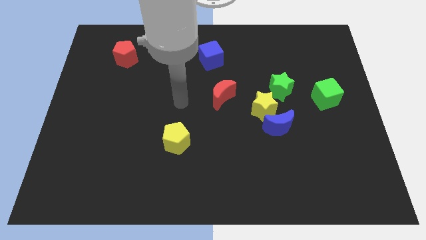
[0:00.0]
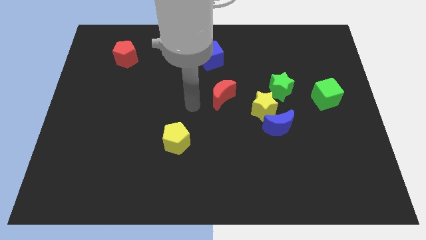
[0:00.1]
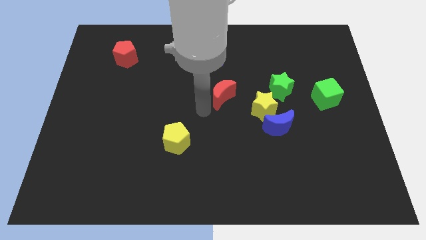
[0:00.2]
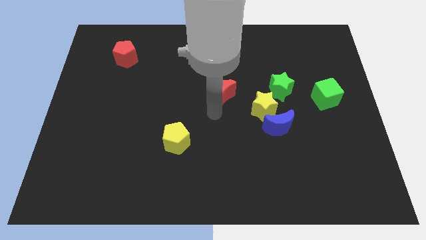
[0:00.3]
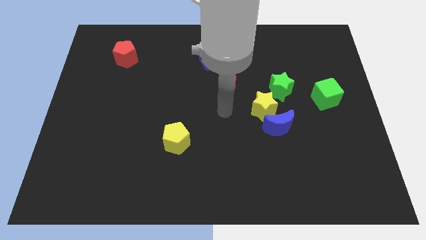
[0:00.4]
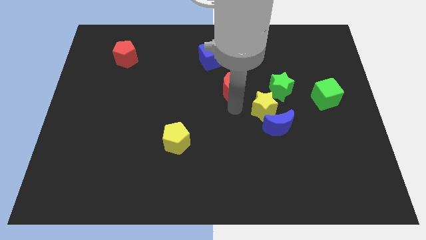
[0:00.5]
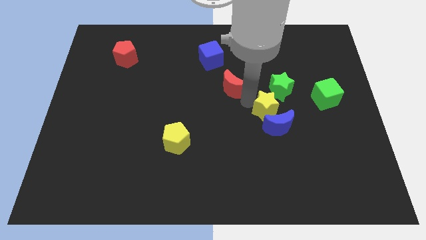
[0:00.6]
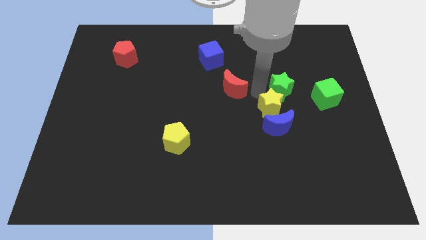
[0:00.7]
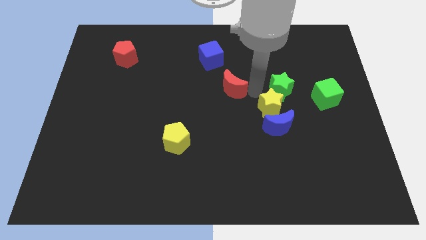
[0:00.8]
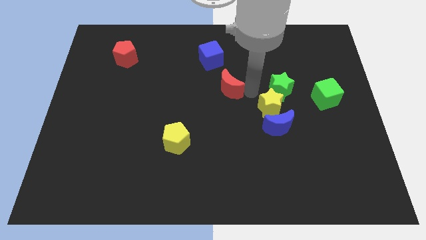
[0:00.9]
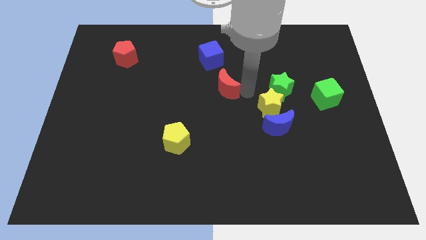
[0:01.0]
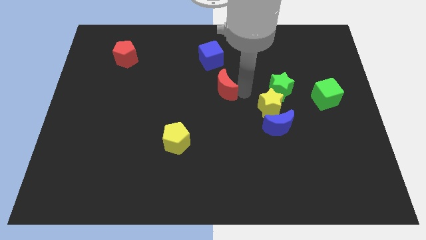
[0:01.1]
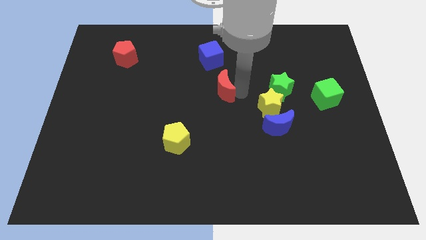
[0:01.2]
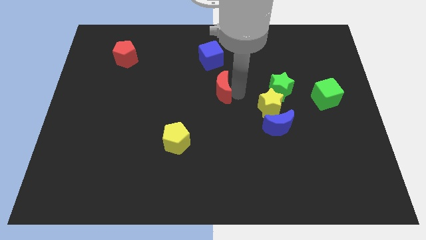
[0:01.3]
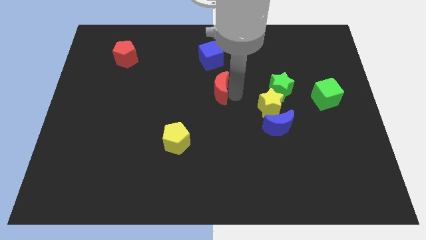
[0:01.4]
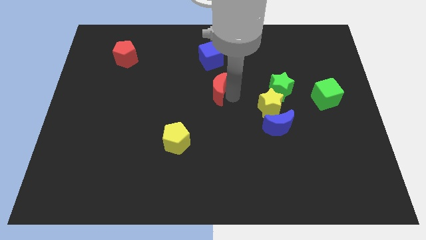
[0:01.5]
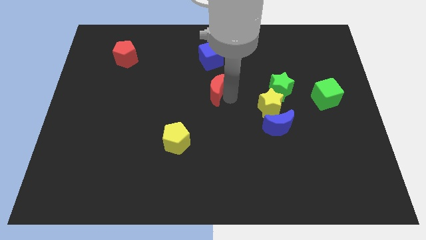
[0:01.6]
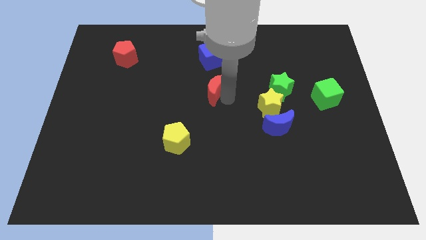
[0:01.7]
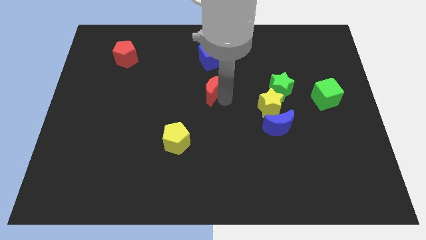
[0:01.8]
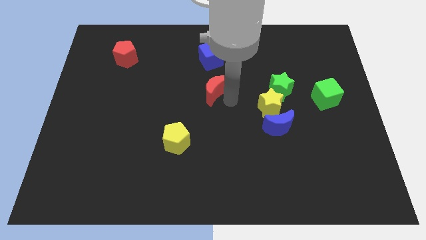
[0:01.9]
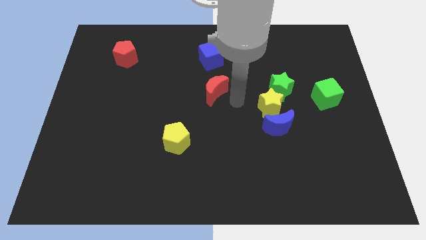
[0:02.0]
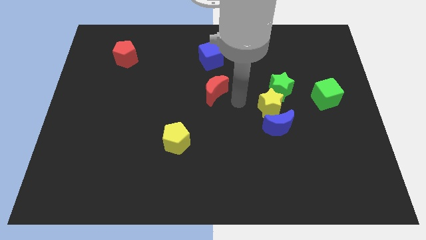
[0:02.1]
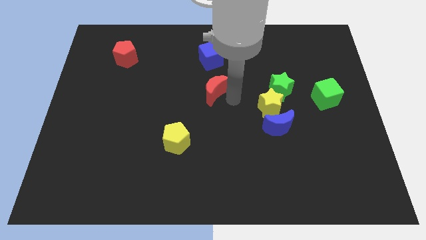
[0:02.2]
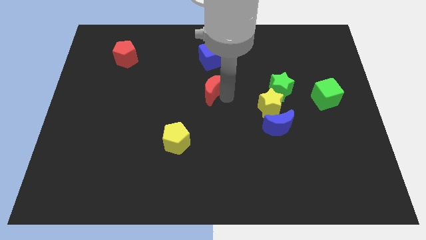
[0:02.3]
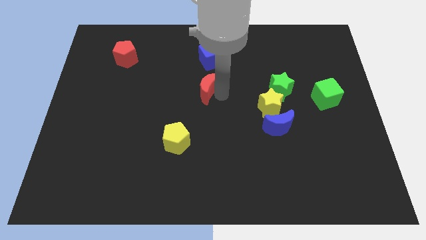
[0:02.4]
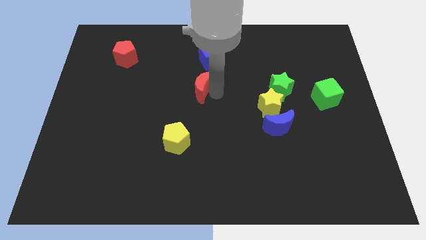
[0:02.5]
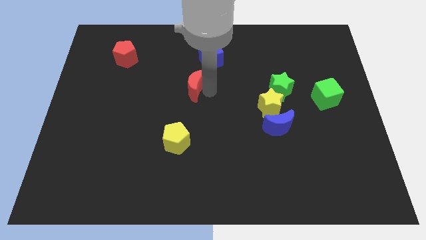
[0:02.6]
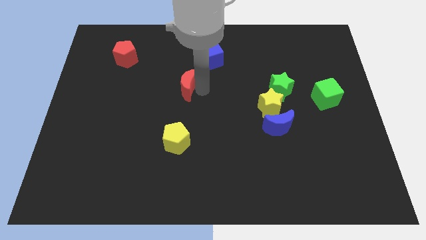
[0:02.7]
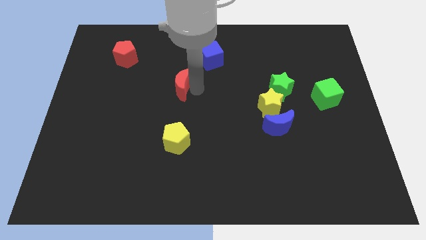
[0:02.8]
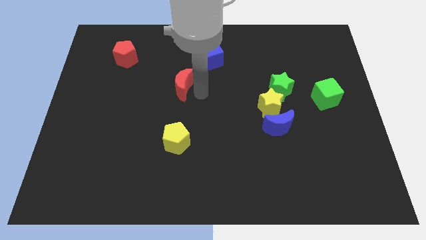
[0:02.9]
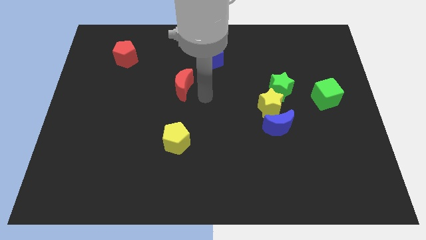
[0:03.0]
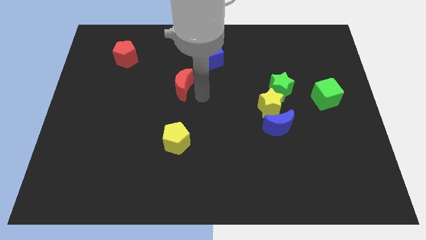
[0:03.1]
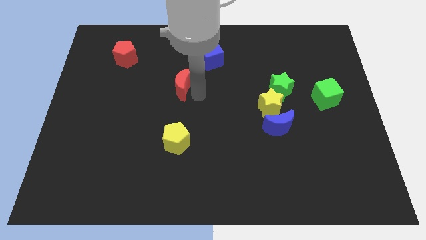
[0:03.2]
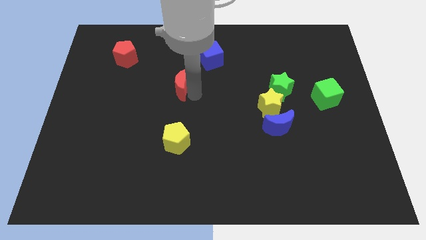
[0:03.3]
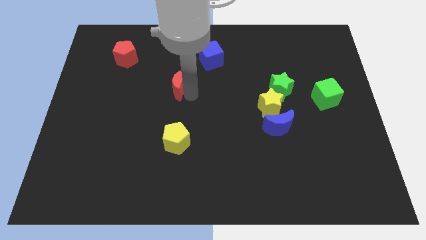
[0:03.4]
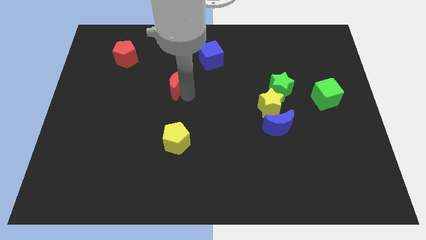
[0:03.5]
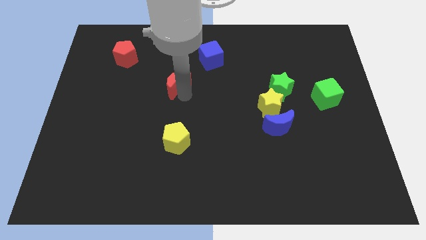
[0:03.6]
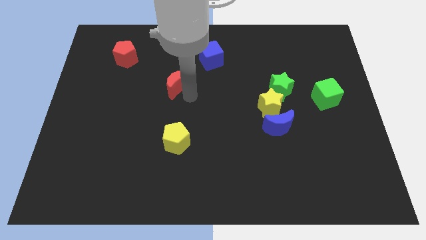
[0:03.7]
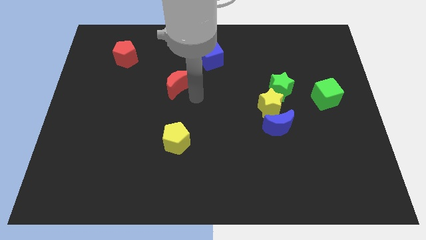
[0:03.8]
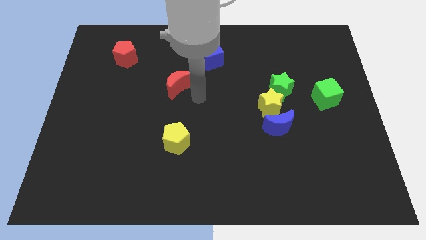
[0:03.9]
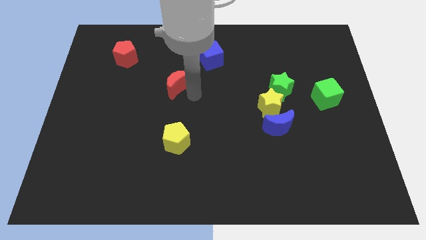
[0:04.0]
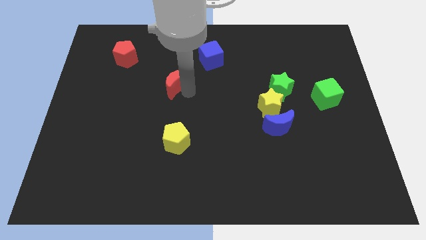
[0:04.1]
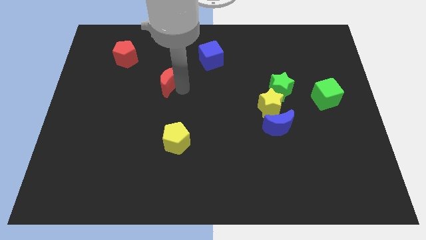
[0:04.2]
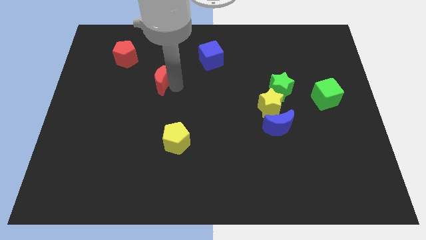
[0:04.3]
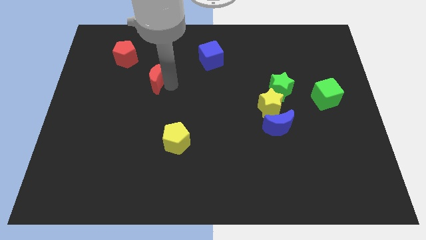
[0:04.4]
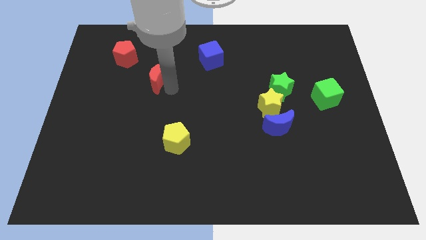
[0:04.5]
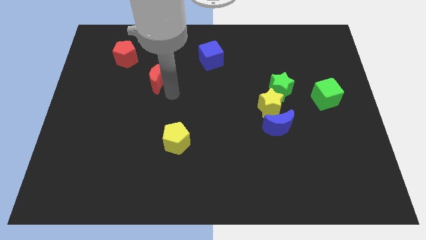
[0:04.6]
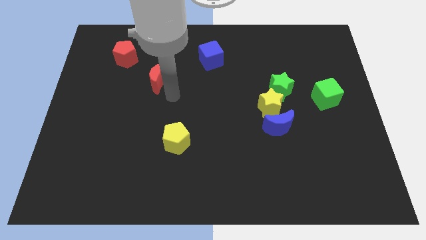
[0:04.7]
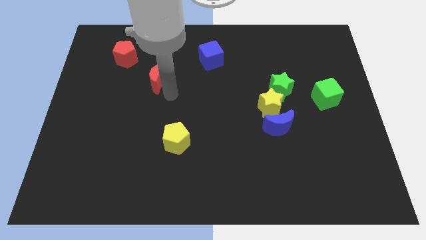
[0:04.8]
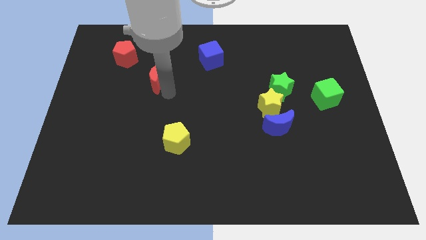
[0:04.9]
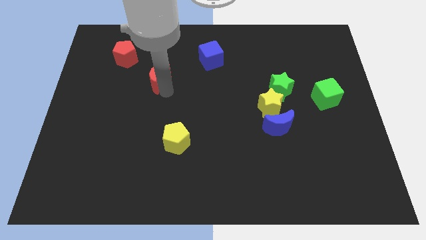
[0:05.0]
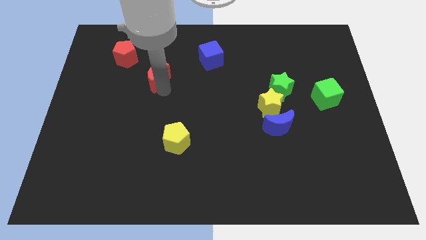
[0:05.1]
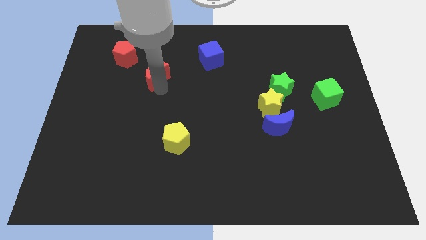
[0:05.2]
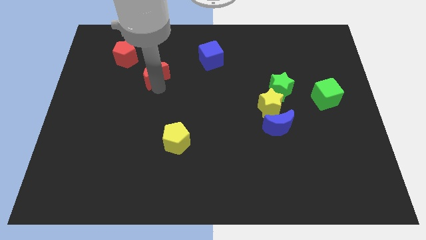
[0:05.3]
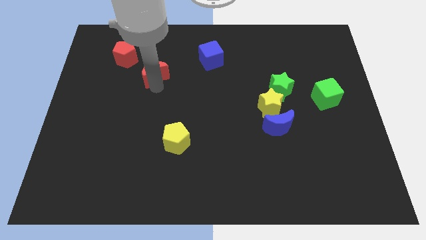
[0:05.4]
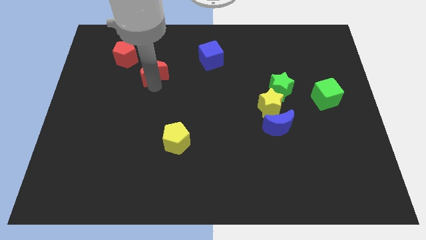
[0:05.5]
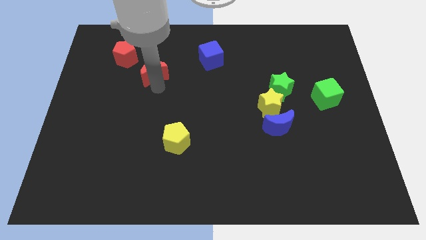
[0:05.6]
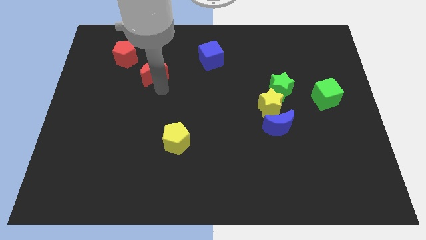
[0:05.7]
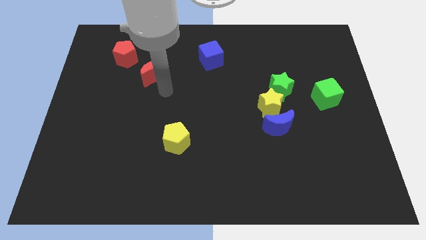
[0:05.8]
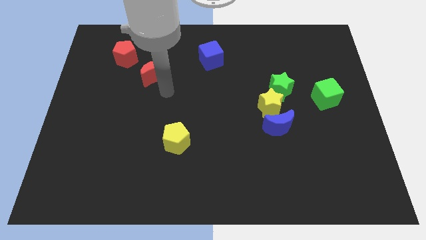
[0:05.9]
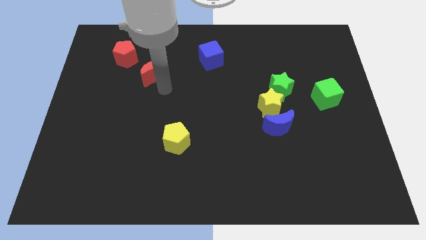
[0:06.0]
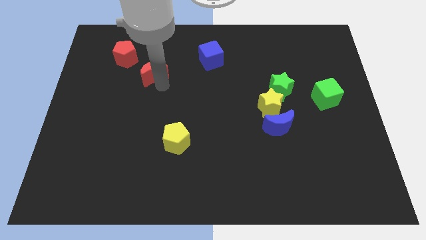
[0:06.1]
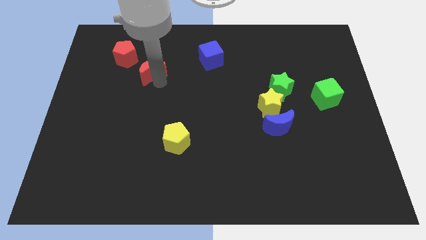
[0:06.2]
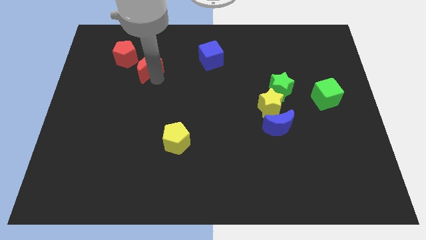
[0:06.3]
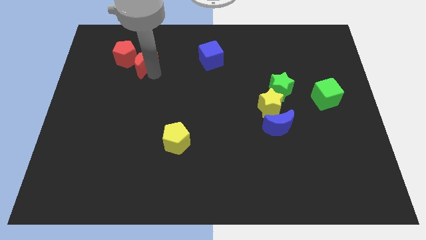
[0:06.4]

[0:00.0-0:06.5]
move the red moon next to the red pentagon

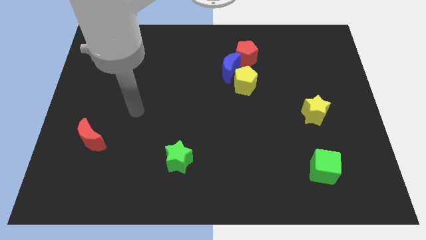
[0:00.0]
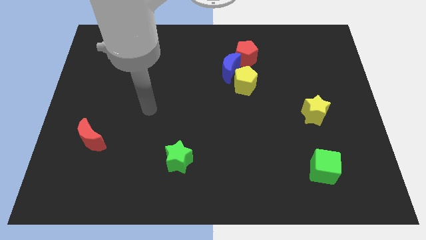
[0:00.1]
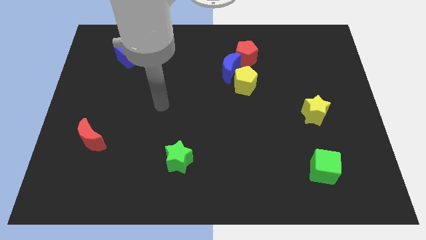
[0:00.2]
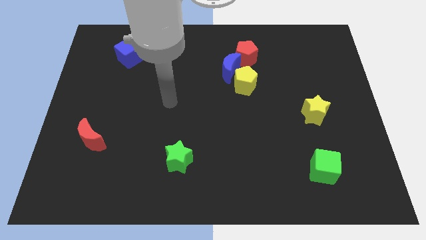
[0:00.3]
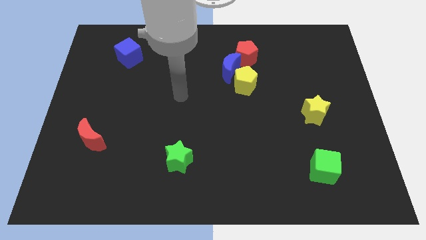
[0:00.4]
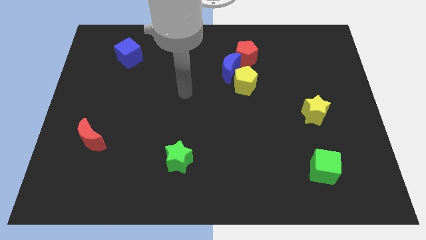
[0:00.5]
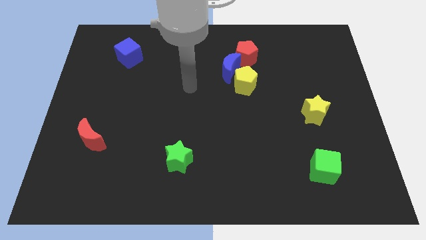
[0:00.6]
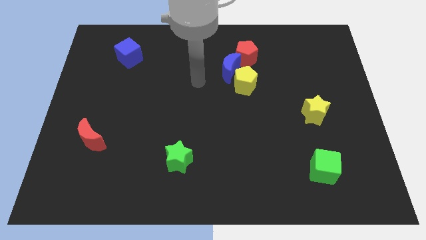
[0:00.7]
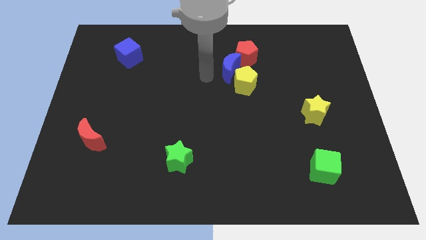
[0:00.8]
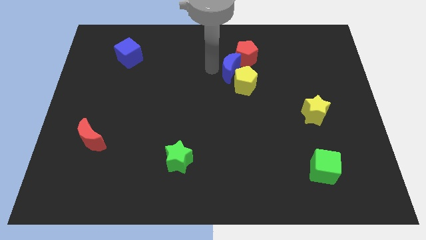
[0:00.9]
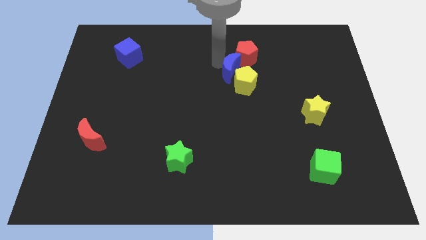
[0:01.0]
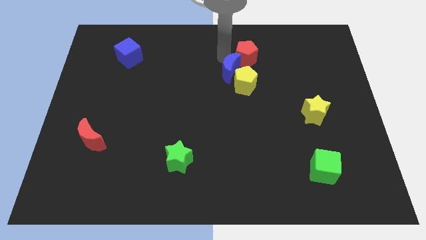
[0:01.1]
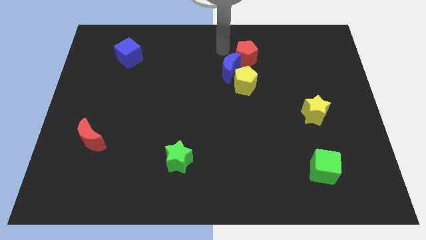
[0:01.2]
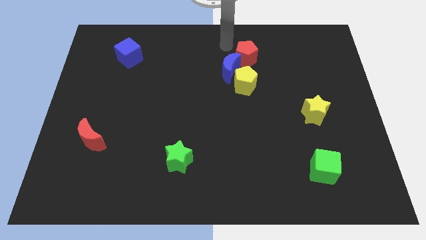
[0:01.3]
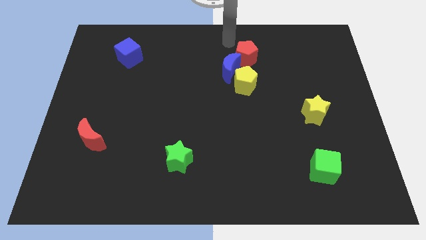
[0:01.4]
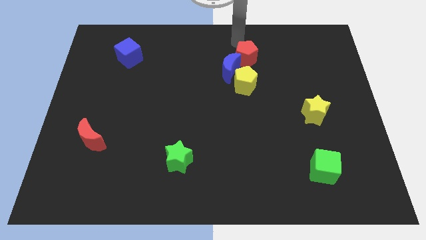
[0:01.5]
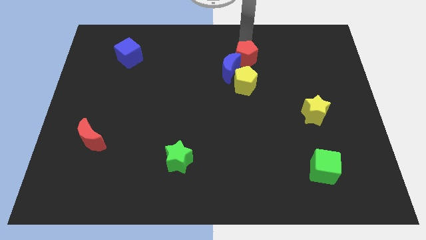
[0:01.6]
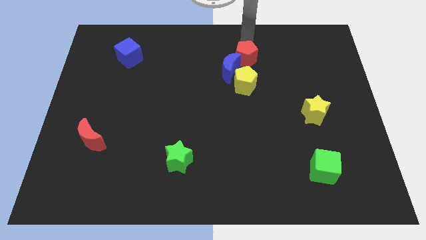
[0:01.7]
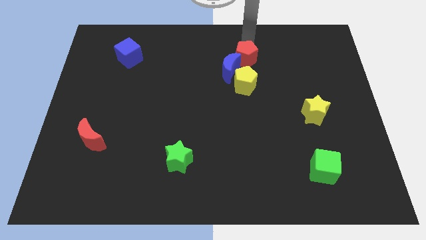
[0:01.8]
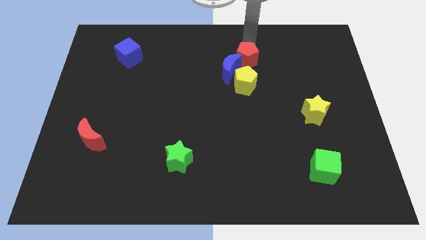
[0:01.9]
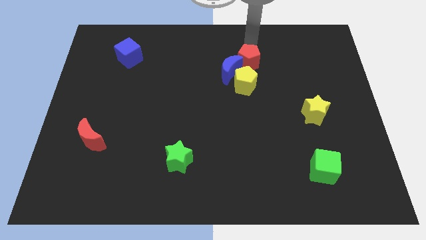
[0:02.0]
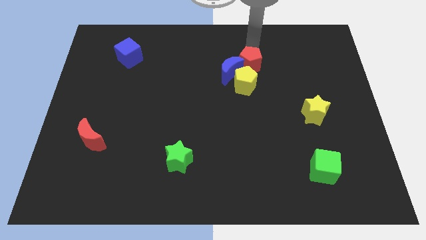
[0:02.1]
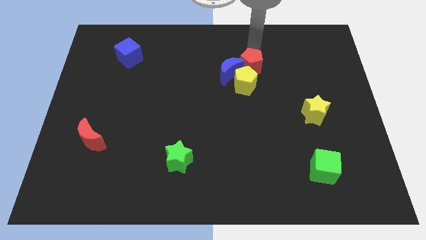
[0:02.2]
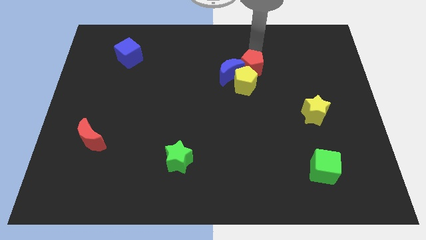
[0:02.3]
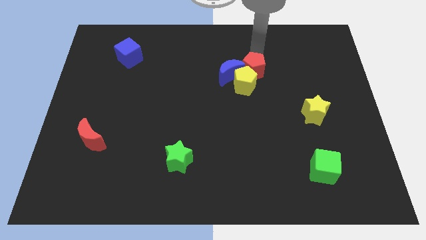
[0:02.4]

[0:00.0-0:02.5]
push the red pentagon next to the yellow pentagon
